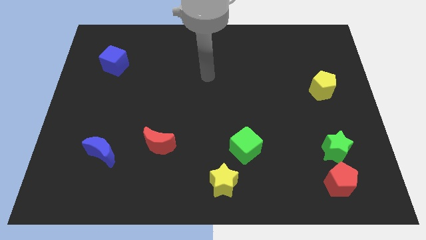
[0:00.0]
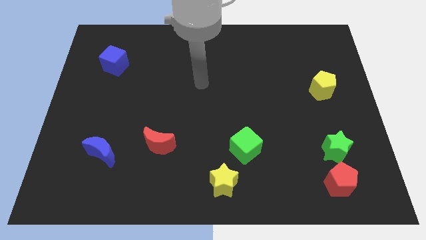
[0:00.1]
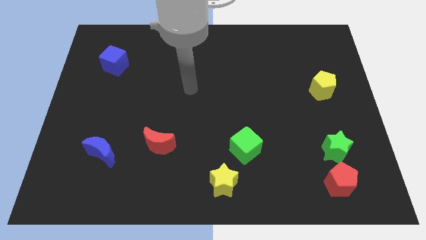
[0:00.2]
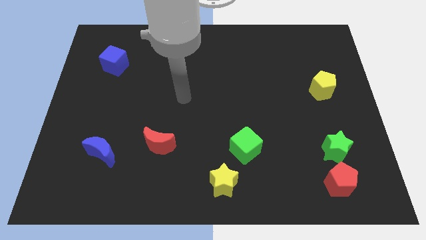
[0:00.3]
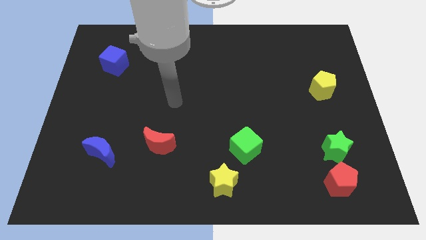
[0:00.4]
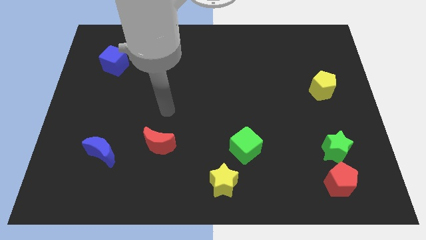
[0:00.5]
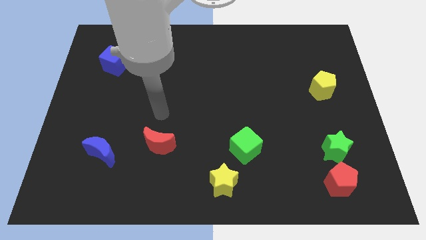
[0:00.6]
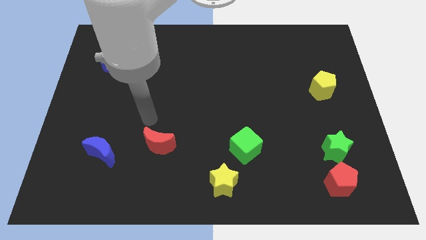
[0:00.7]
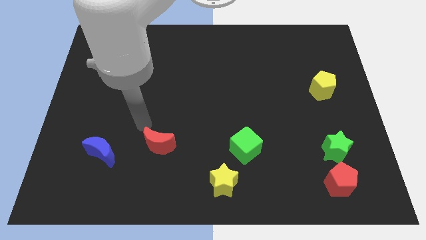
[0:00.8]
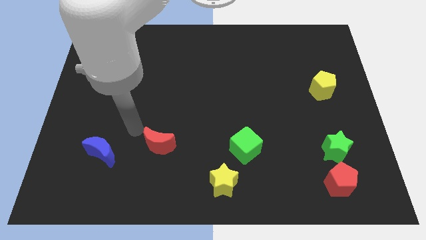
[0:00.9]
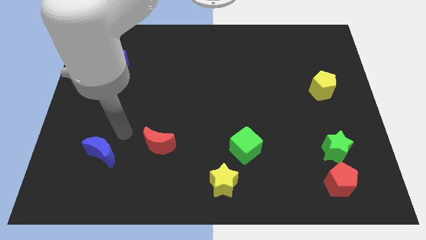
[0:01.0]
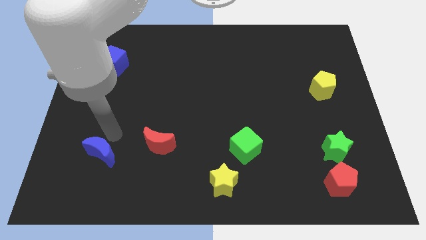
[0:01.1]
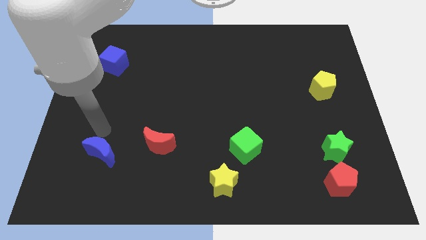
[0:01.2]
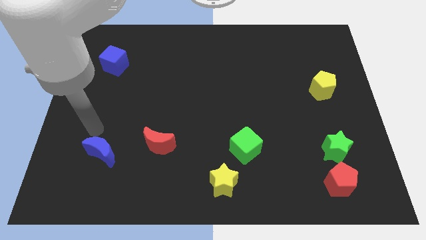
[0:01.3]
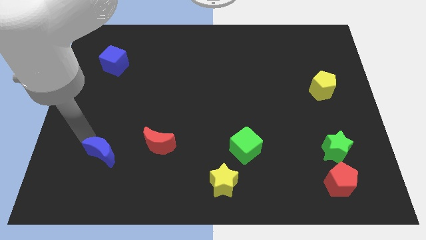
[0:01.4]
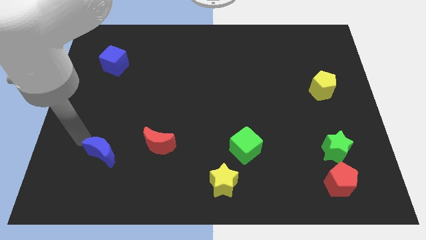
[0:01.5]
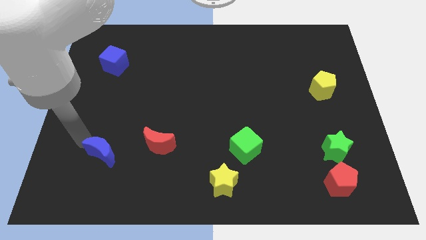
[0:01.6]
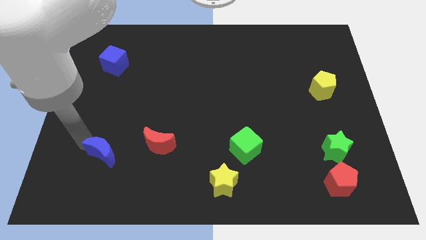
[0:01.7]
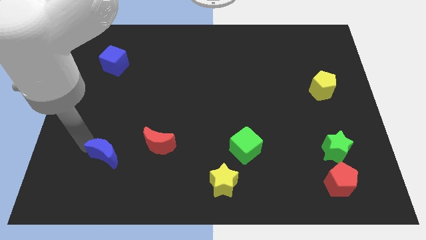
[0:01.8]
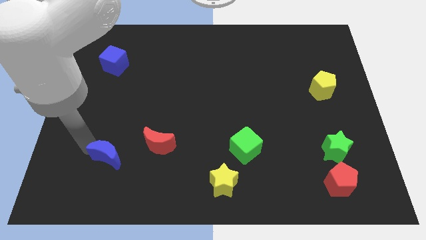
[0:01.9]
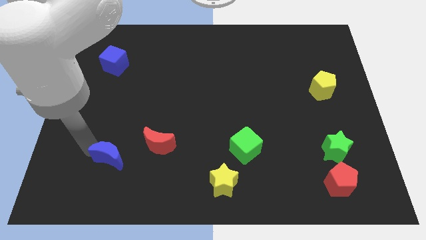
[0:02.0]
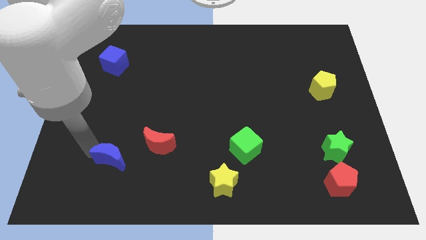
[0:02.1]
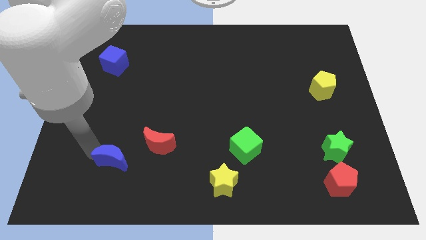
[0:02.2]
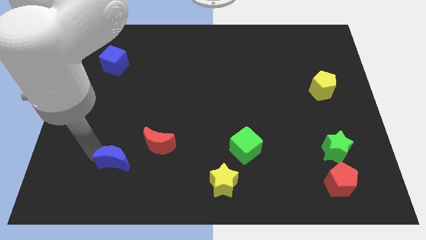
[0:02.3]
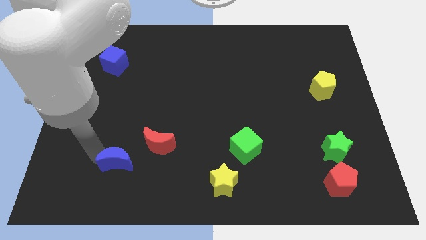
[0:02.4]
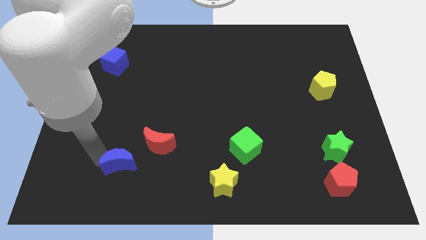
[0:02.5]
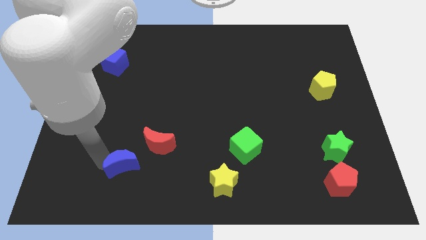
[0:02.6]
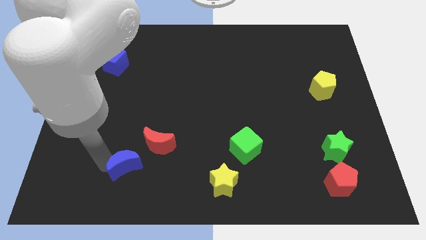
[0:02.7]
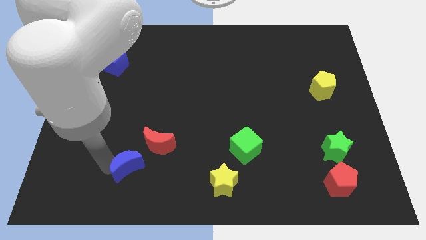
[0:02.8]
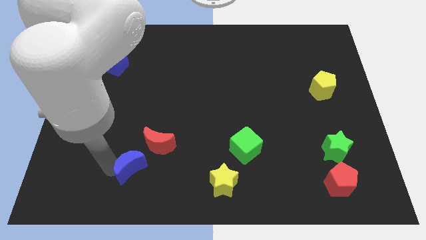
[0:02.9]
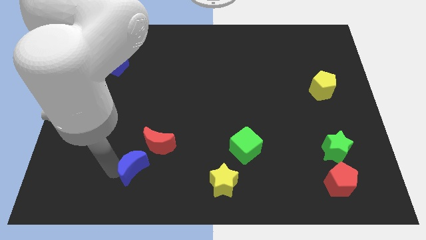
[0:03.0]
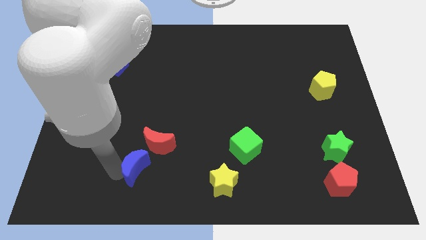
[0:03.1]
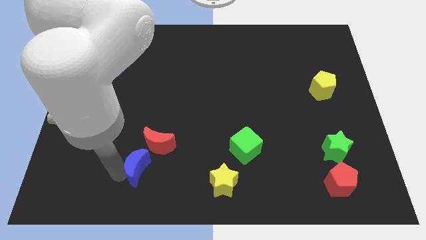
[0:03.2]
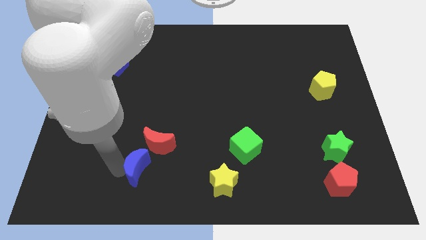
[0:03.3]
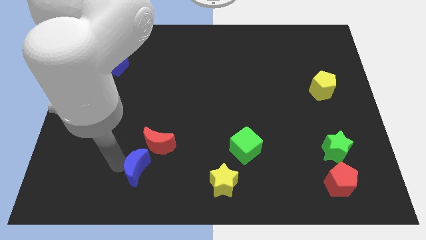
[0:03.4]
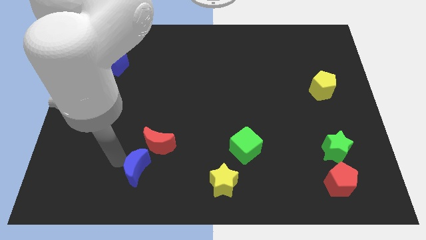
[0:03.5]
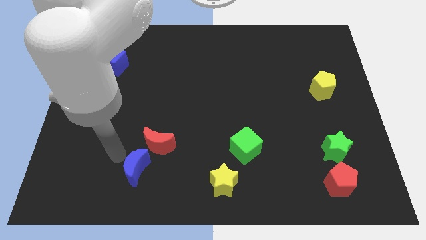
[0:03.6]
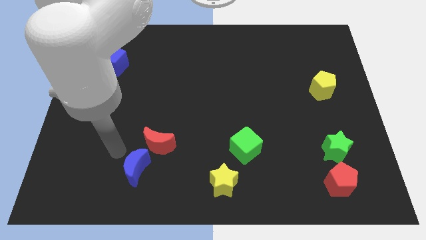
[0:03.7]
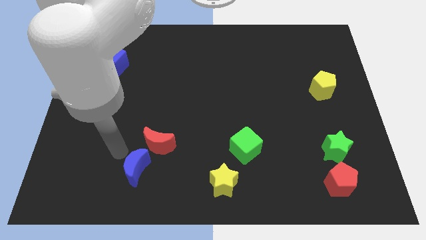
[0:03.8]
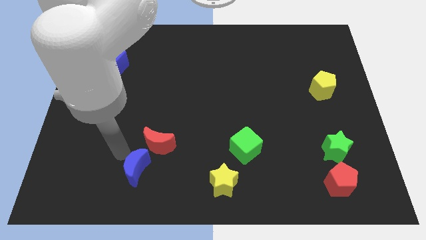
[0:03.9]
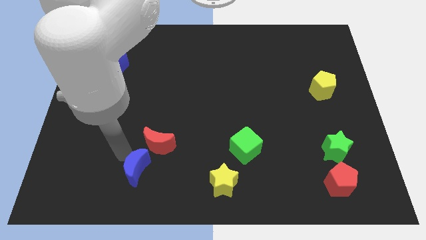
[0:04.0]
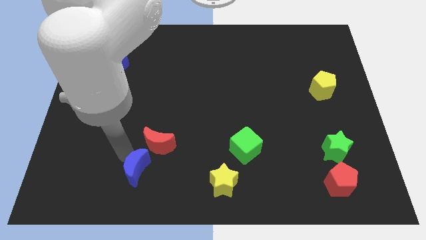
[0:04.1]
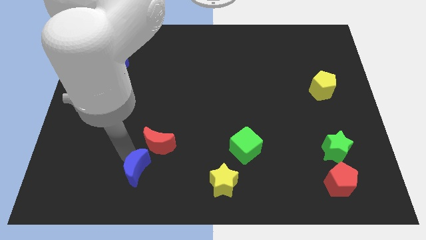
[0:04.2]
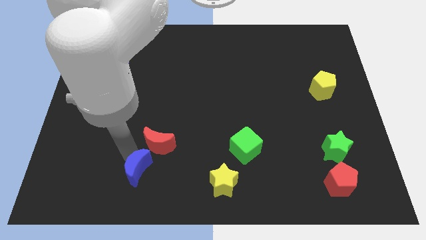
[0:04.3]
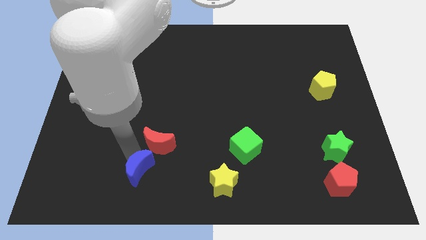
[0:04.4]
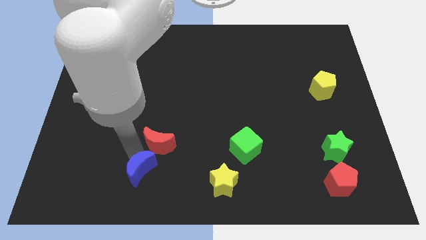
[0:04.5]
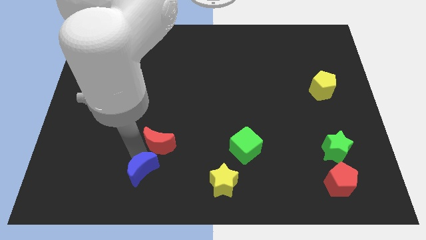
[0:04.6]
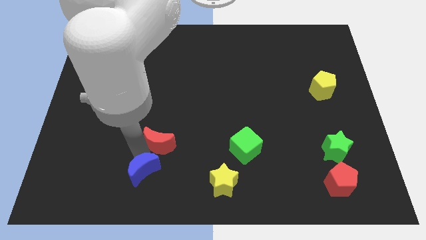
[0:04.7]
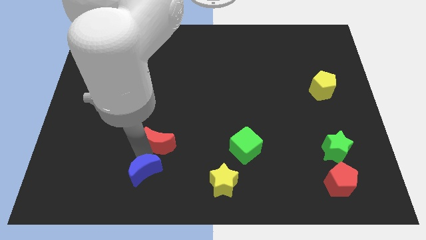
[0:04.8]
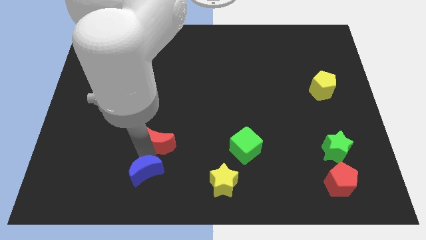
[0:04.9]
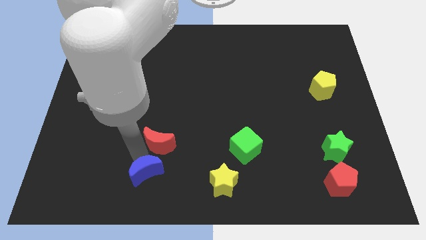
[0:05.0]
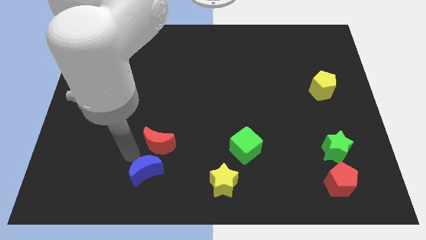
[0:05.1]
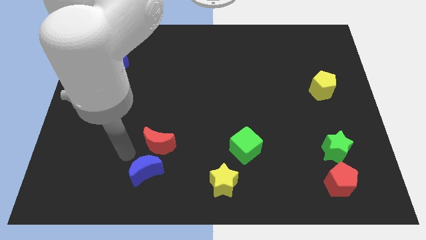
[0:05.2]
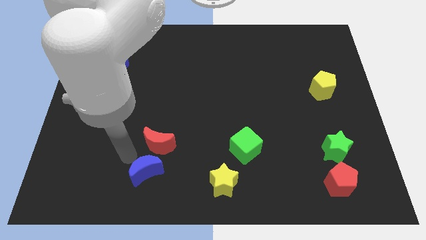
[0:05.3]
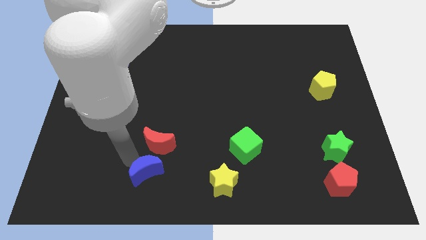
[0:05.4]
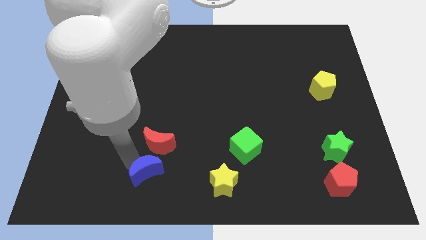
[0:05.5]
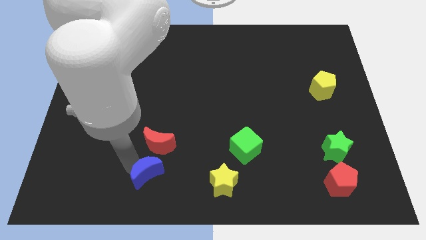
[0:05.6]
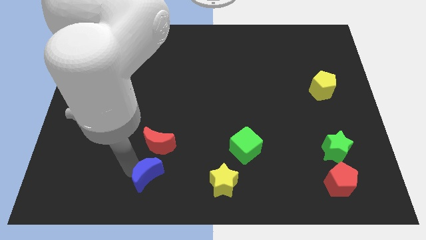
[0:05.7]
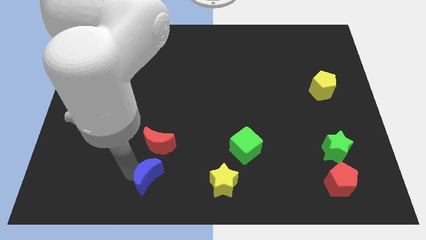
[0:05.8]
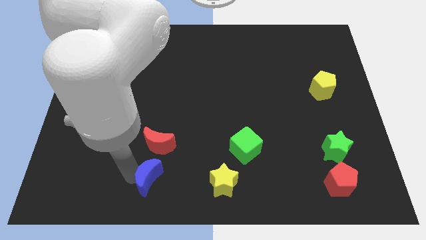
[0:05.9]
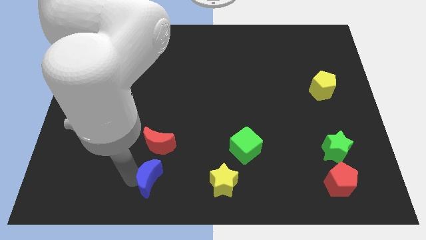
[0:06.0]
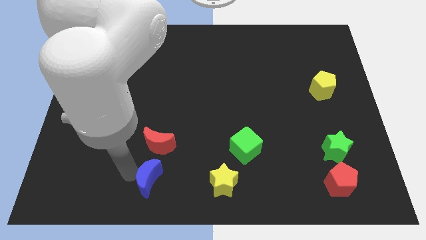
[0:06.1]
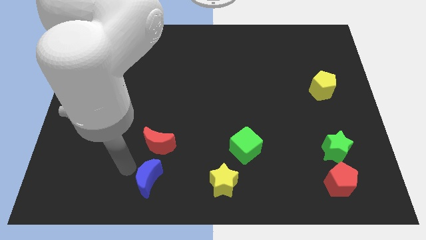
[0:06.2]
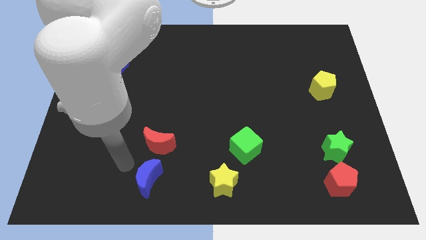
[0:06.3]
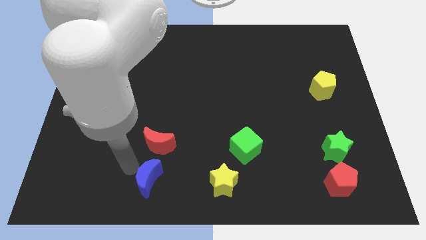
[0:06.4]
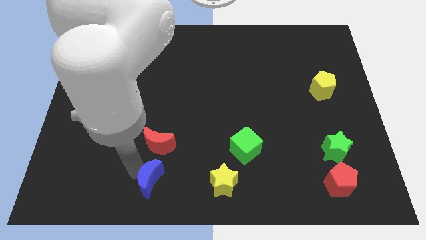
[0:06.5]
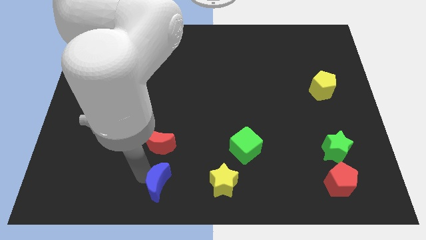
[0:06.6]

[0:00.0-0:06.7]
push the blue moon to the bottom side
